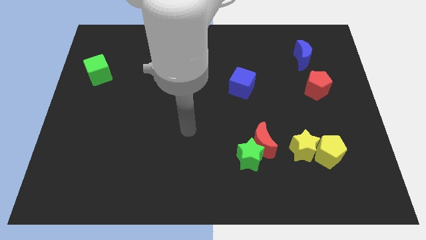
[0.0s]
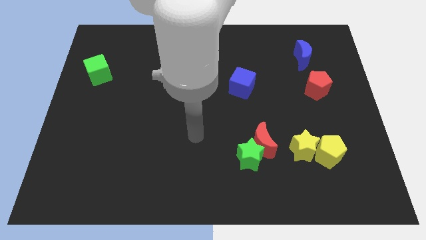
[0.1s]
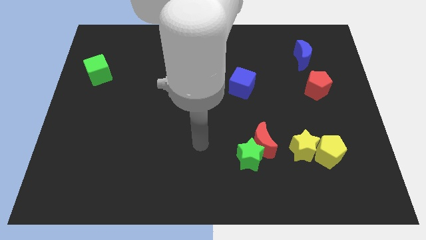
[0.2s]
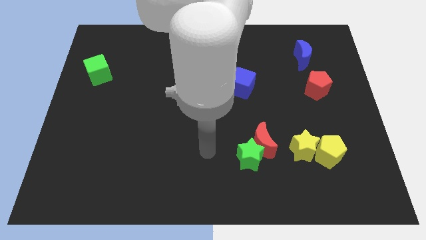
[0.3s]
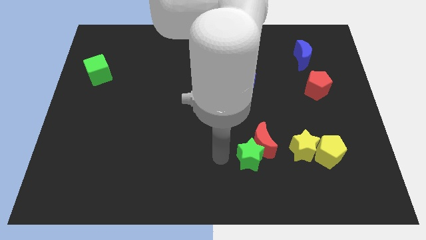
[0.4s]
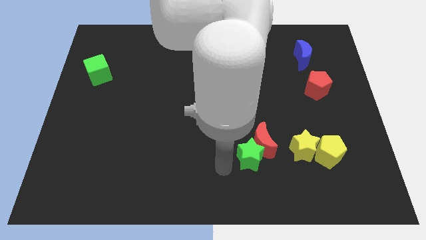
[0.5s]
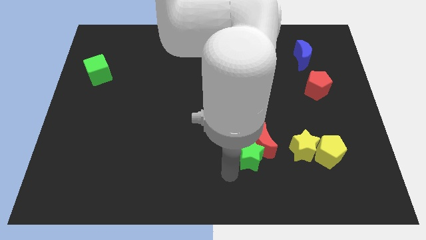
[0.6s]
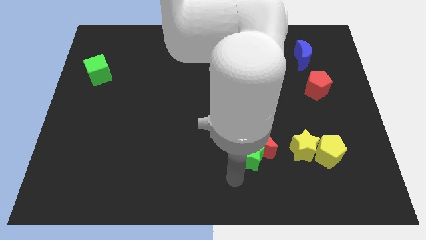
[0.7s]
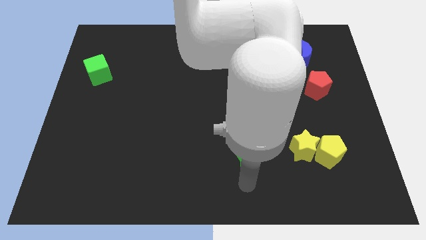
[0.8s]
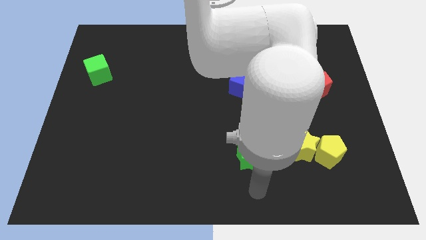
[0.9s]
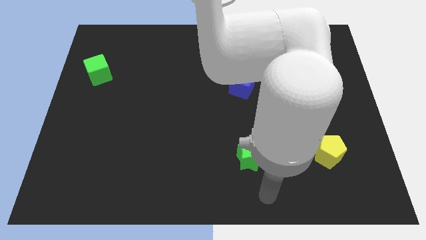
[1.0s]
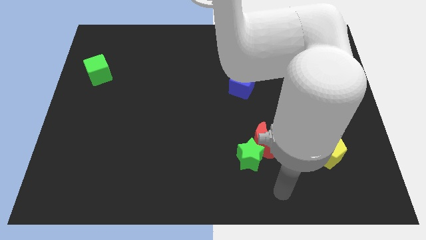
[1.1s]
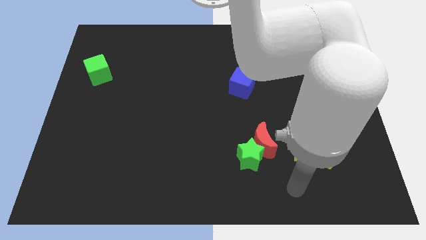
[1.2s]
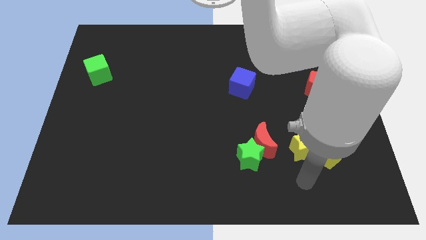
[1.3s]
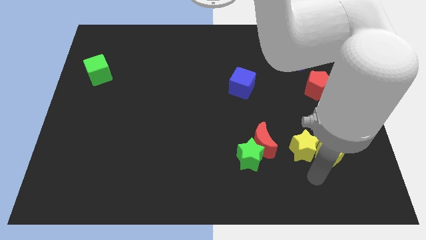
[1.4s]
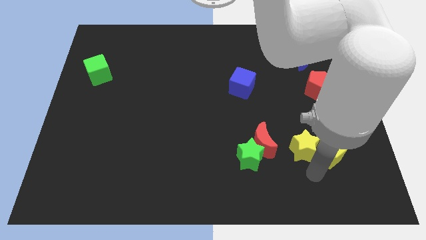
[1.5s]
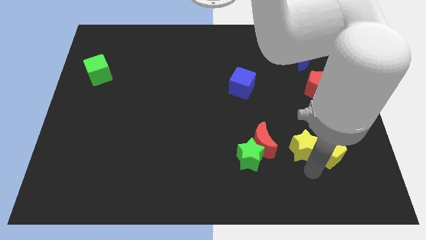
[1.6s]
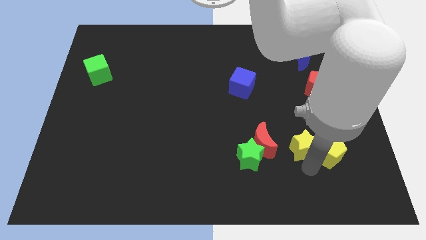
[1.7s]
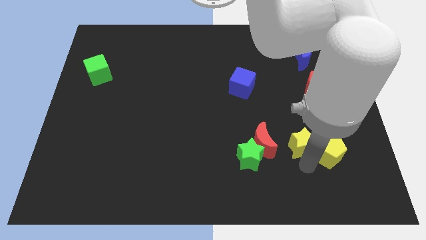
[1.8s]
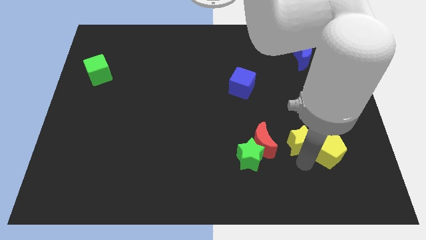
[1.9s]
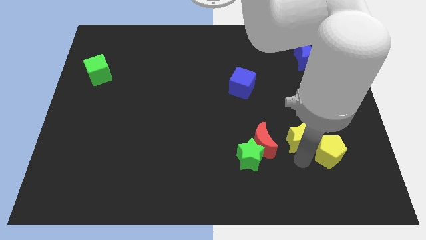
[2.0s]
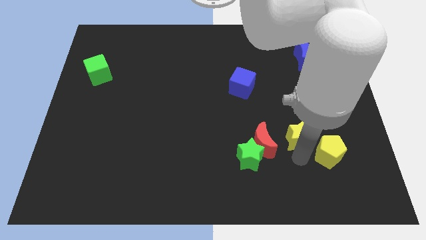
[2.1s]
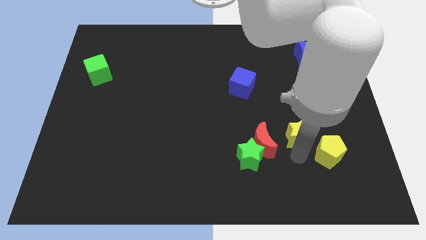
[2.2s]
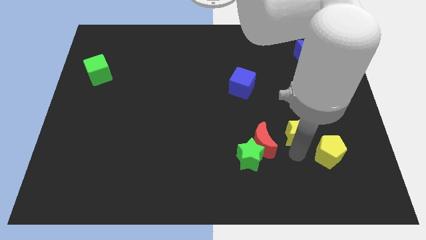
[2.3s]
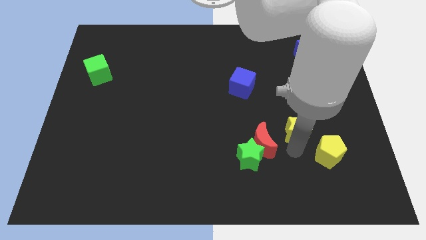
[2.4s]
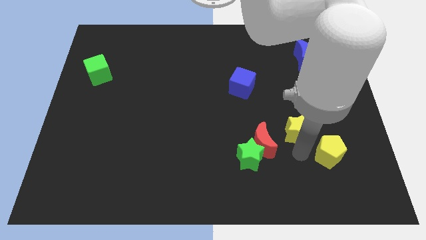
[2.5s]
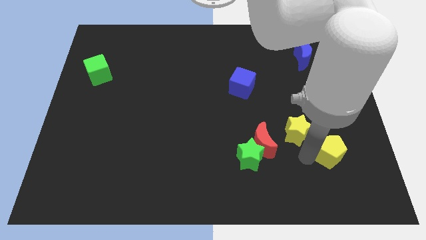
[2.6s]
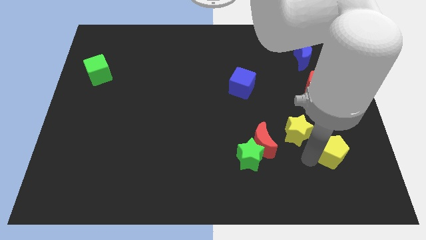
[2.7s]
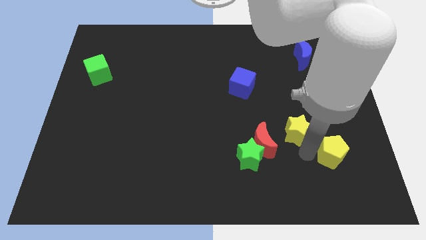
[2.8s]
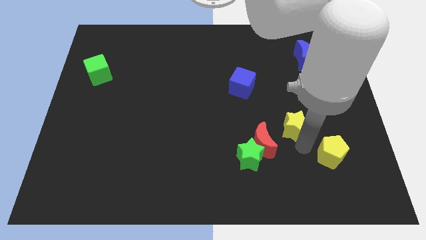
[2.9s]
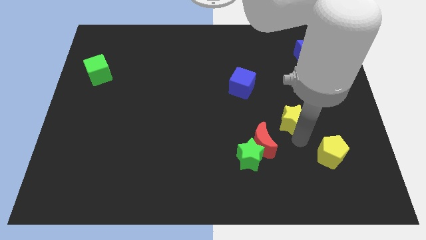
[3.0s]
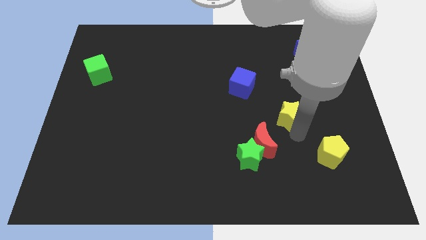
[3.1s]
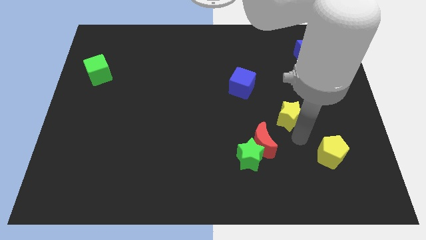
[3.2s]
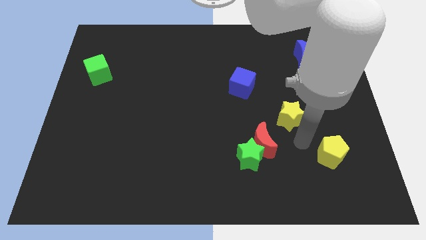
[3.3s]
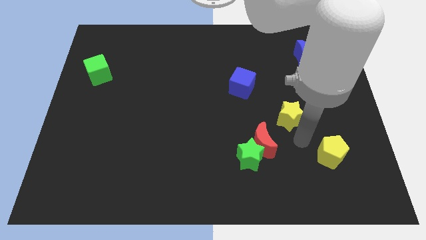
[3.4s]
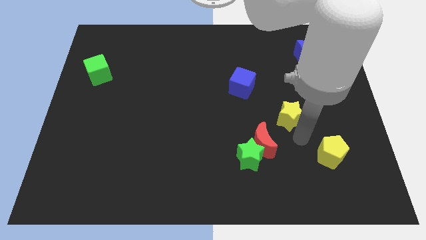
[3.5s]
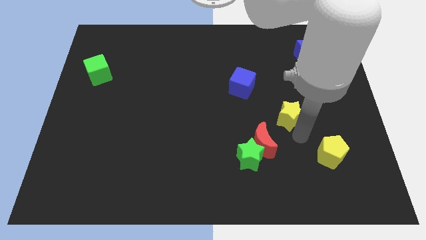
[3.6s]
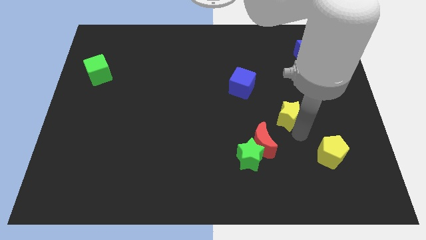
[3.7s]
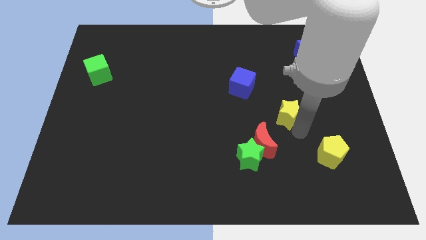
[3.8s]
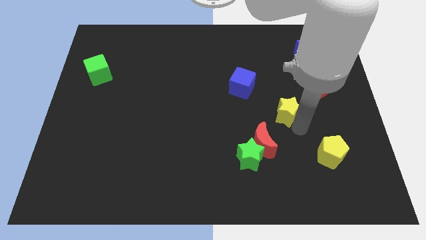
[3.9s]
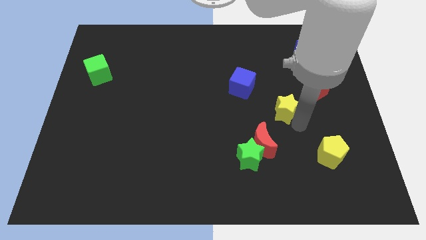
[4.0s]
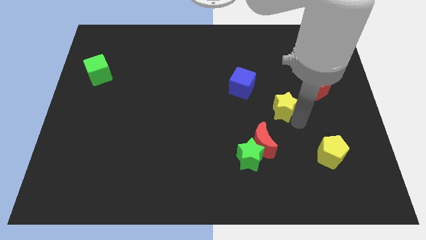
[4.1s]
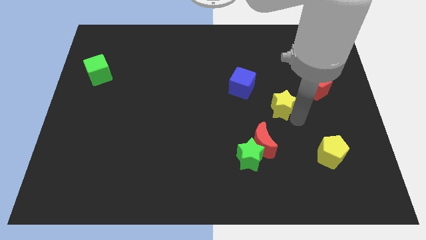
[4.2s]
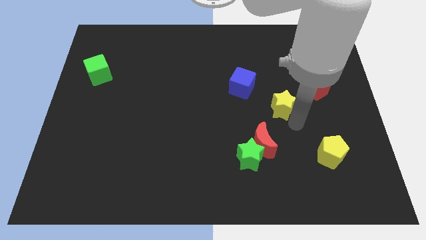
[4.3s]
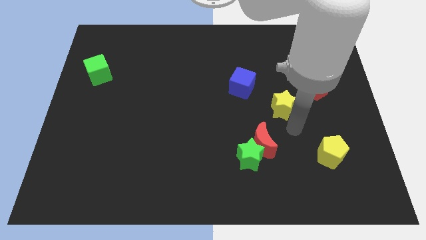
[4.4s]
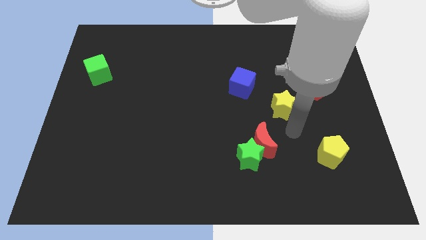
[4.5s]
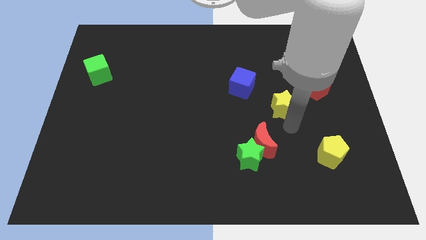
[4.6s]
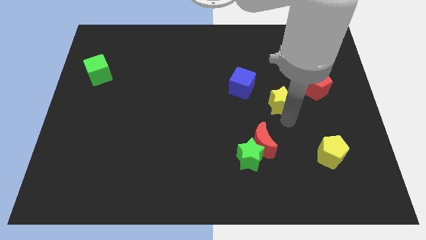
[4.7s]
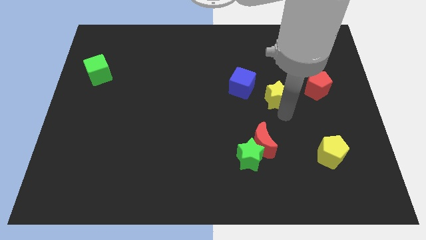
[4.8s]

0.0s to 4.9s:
push the yellow star just left of the red pentagon

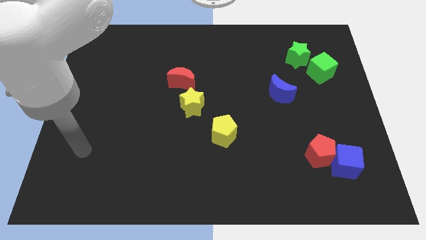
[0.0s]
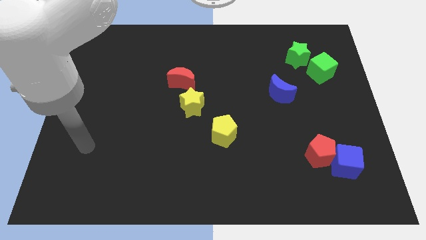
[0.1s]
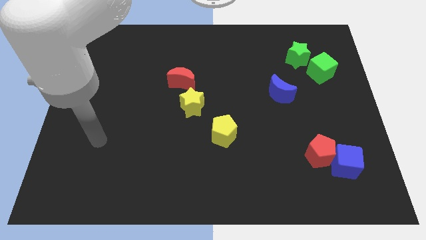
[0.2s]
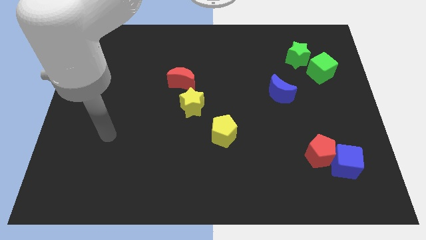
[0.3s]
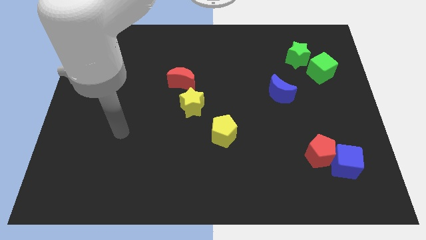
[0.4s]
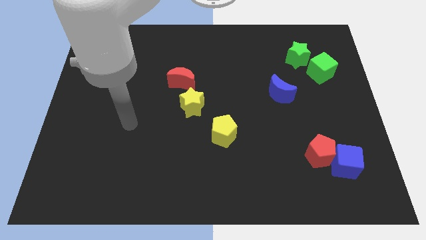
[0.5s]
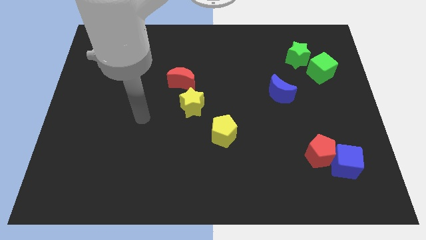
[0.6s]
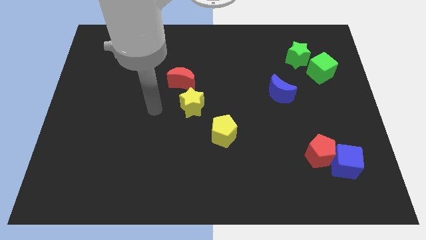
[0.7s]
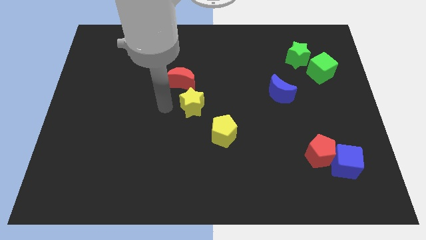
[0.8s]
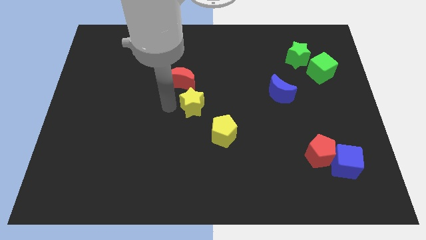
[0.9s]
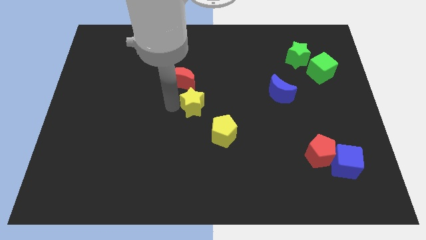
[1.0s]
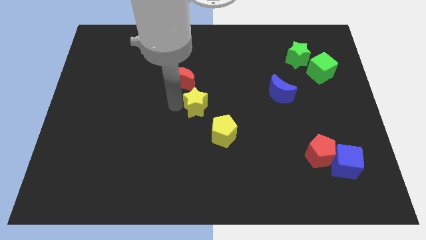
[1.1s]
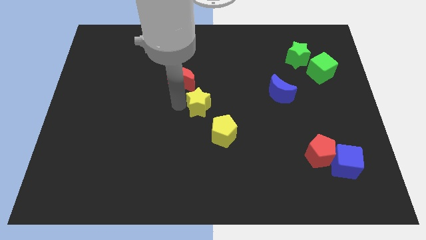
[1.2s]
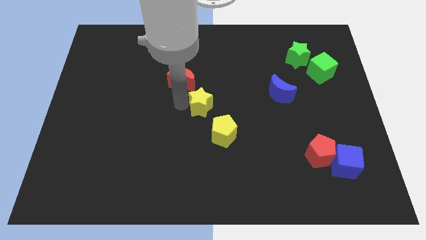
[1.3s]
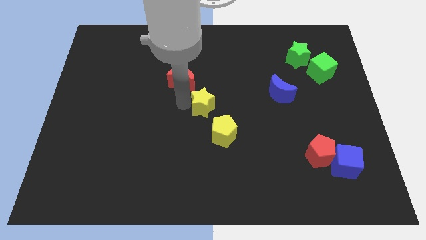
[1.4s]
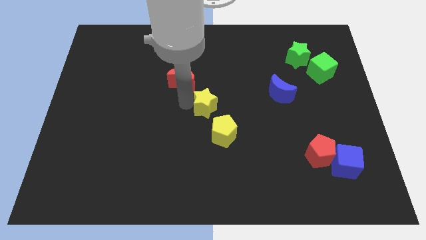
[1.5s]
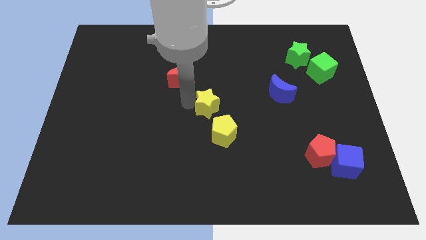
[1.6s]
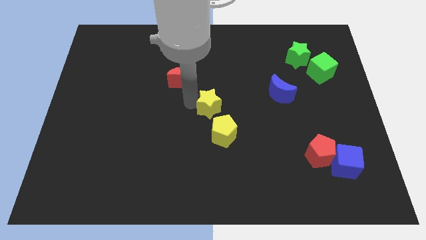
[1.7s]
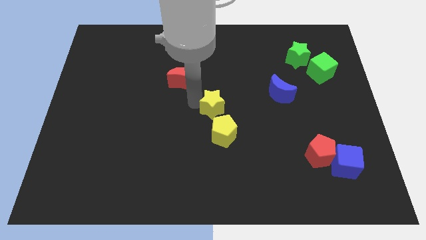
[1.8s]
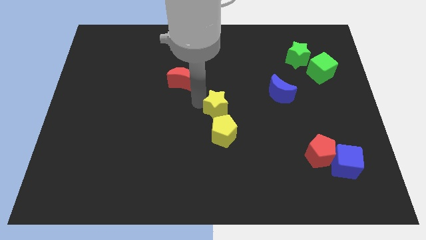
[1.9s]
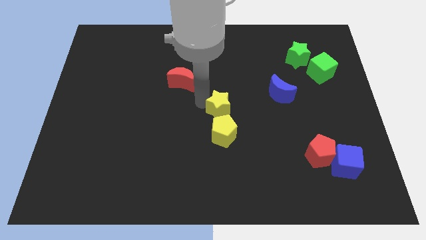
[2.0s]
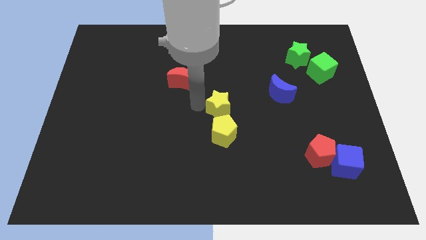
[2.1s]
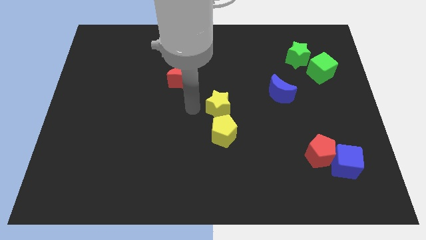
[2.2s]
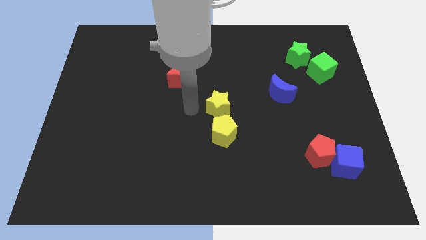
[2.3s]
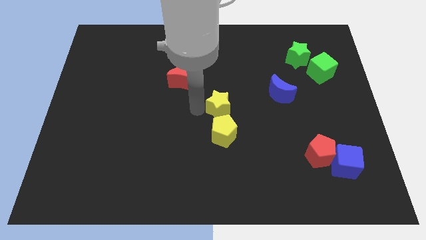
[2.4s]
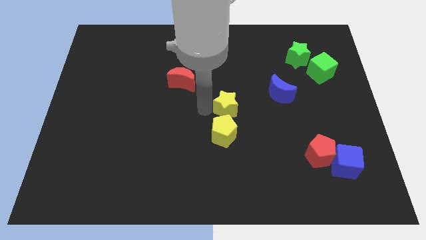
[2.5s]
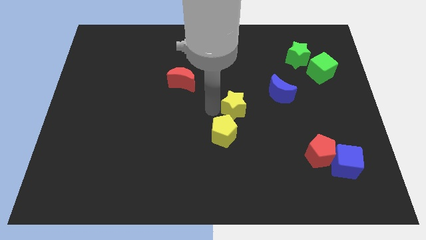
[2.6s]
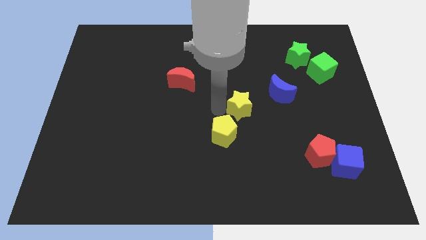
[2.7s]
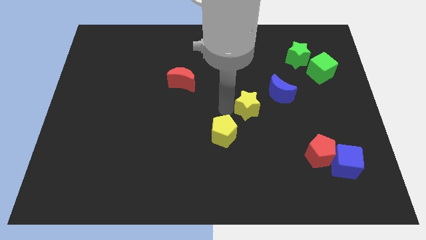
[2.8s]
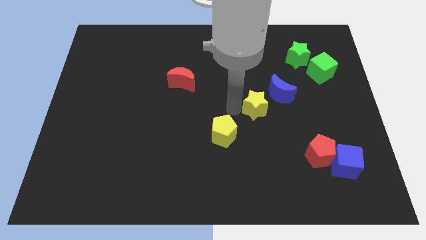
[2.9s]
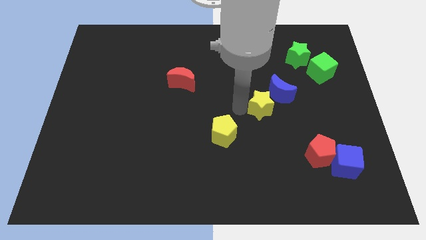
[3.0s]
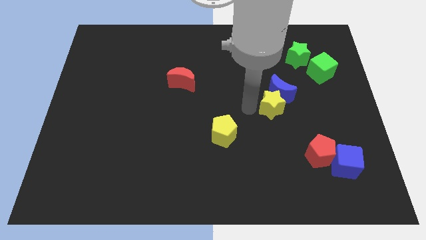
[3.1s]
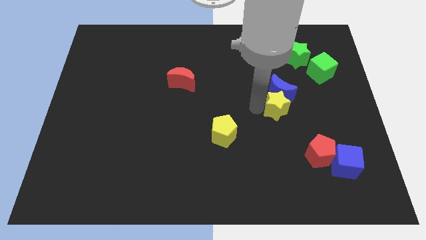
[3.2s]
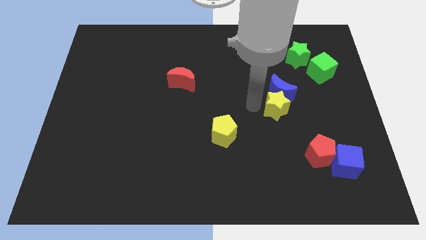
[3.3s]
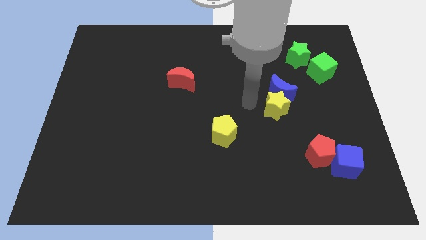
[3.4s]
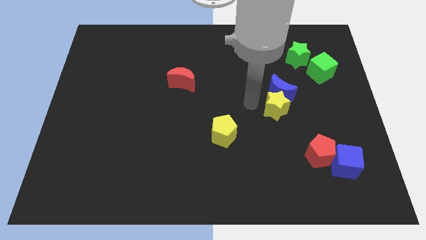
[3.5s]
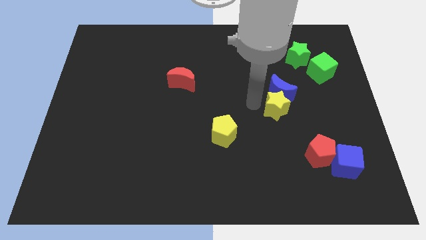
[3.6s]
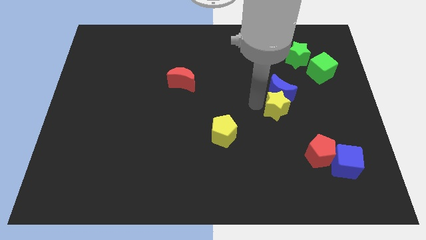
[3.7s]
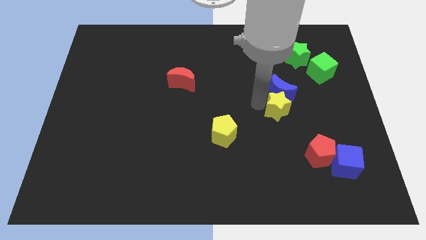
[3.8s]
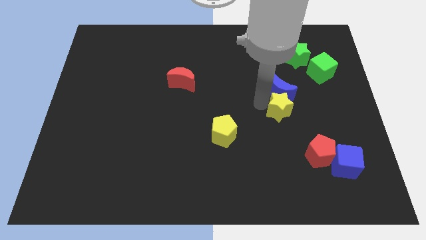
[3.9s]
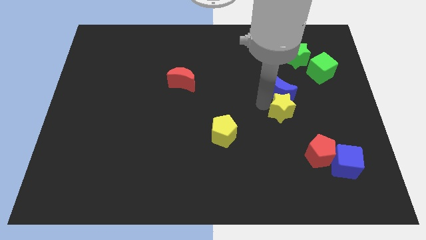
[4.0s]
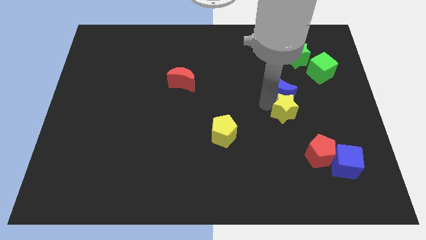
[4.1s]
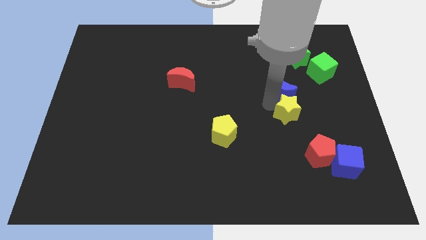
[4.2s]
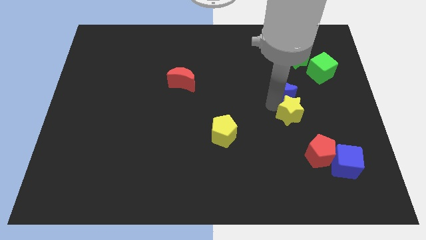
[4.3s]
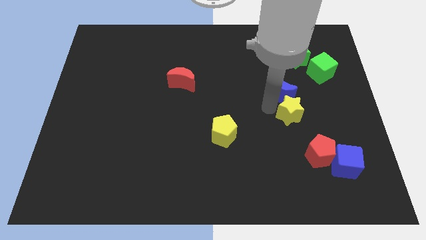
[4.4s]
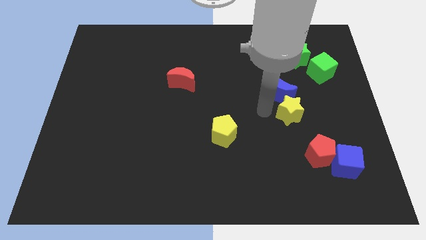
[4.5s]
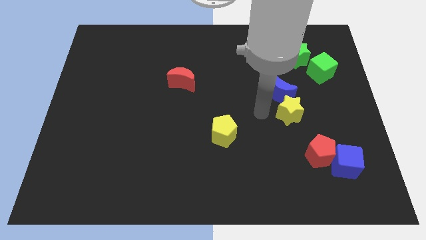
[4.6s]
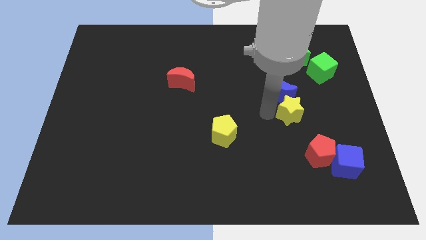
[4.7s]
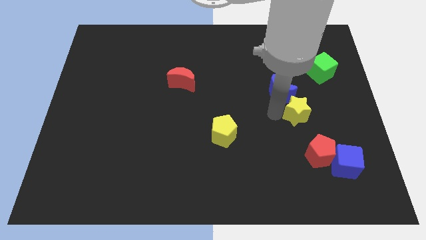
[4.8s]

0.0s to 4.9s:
move the yellow star above the red pentagon
